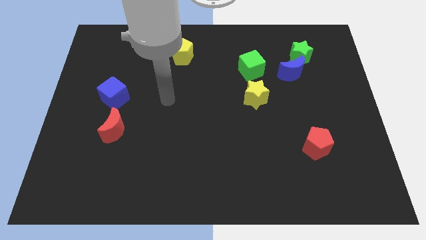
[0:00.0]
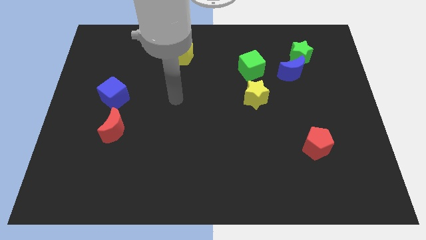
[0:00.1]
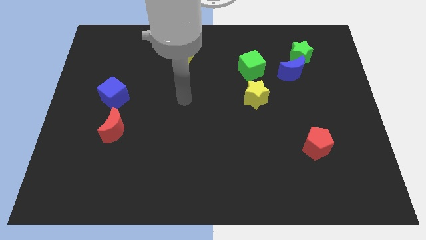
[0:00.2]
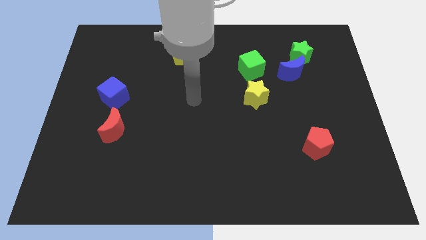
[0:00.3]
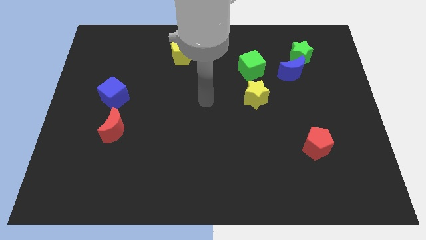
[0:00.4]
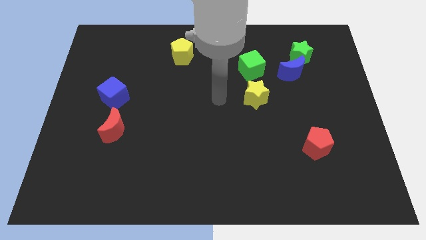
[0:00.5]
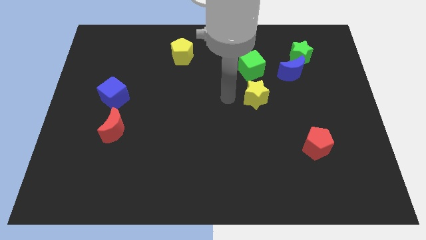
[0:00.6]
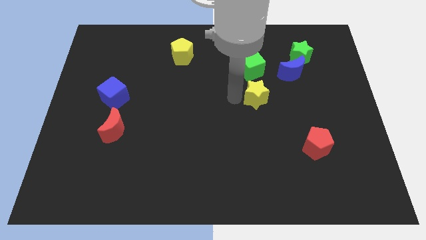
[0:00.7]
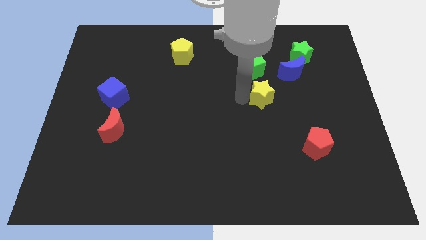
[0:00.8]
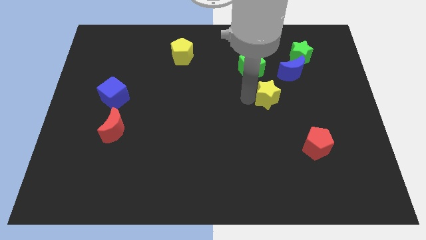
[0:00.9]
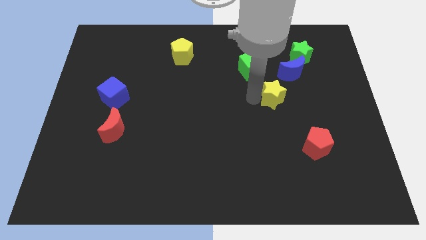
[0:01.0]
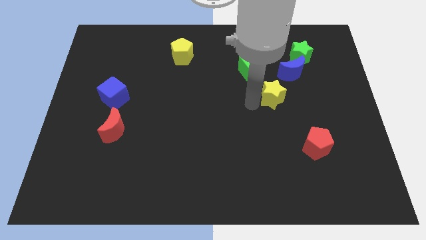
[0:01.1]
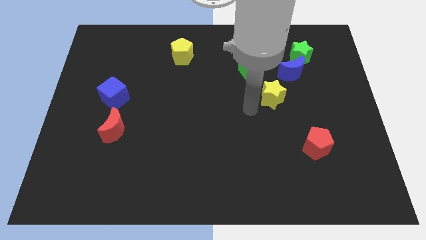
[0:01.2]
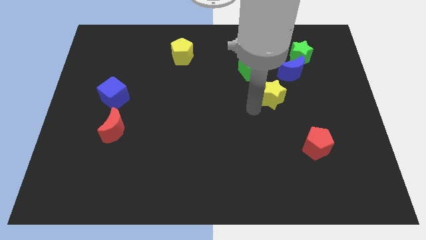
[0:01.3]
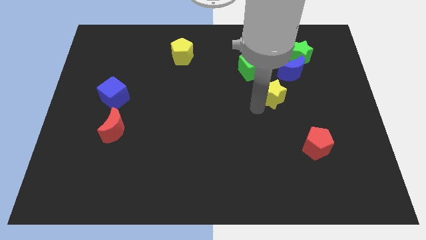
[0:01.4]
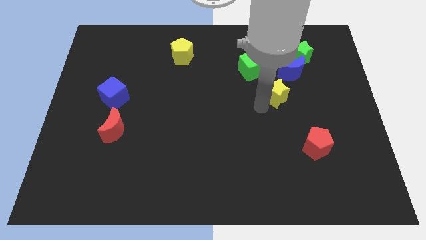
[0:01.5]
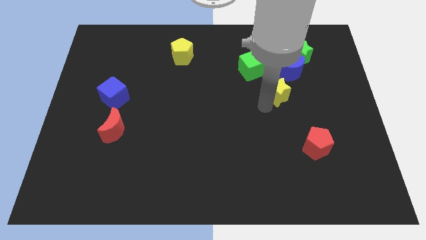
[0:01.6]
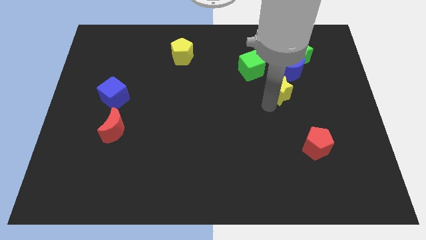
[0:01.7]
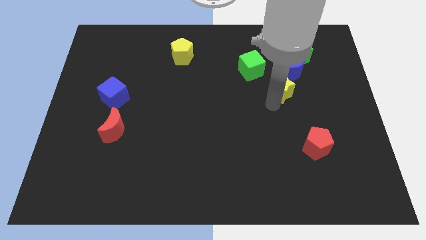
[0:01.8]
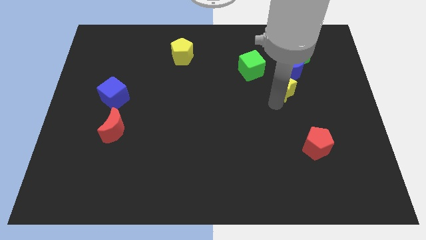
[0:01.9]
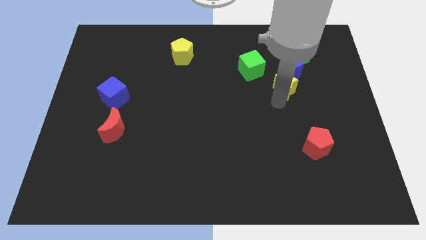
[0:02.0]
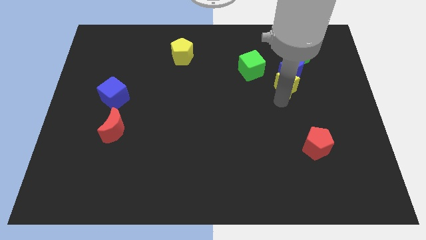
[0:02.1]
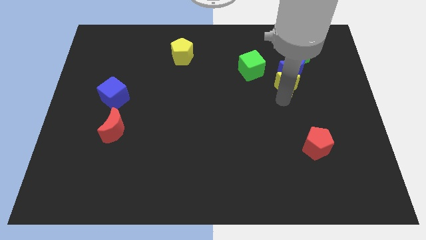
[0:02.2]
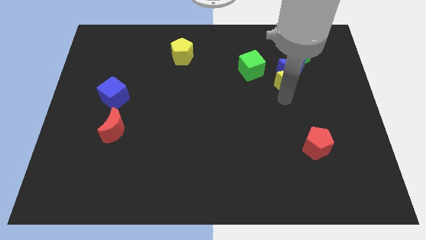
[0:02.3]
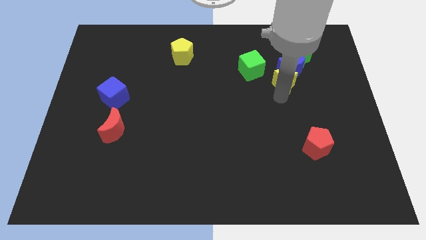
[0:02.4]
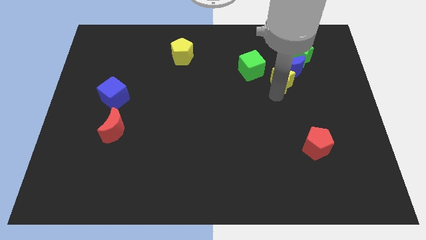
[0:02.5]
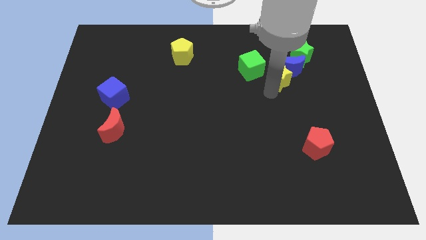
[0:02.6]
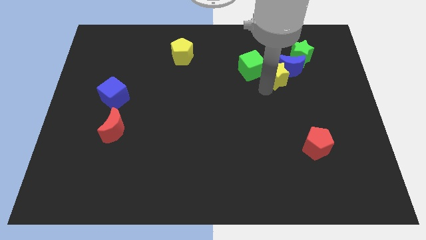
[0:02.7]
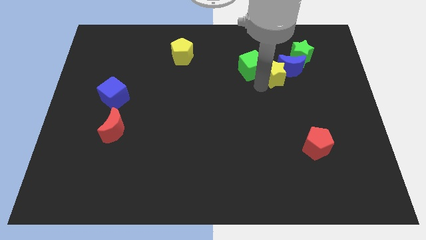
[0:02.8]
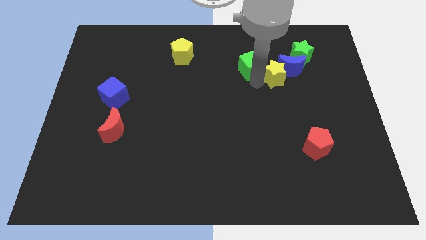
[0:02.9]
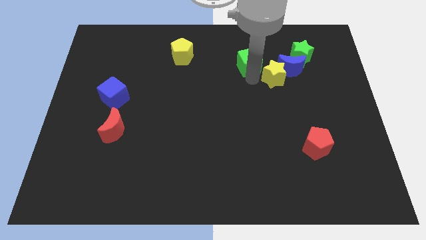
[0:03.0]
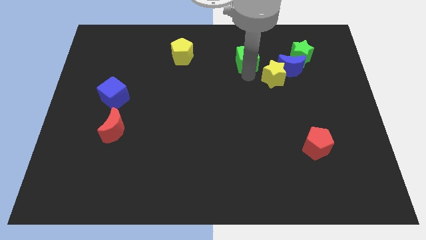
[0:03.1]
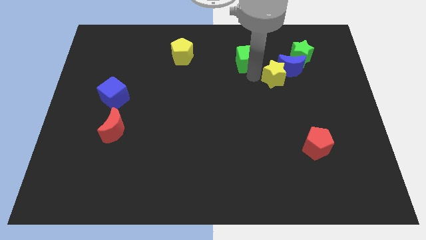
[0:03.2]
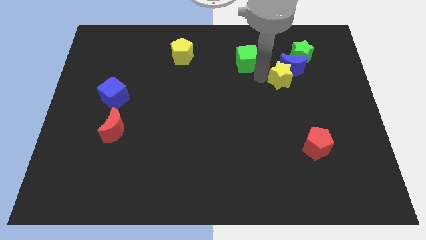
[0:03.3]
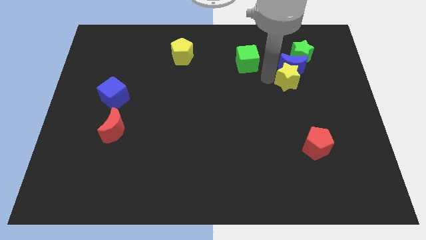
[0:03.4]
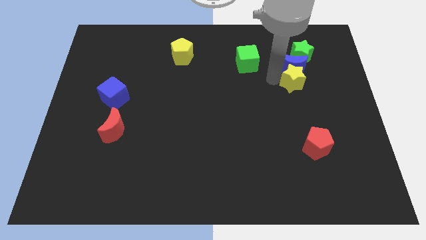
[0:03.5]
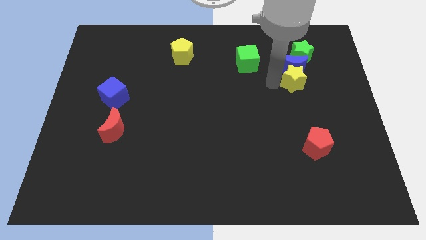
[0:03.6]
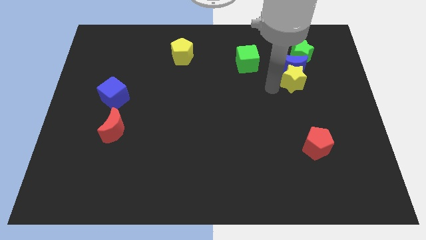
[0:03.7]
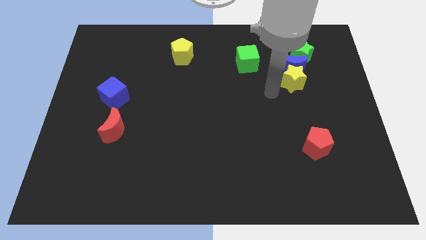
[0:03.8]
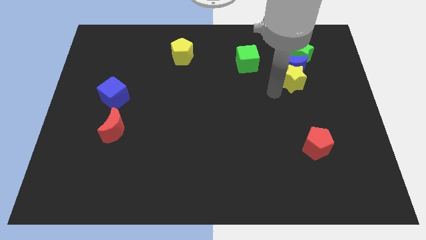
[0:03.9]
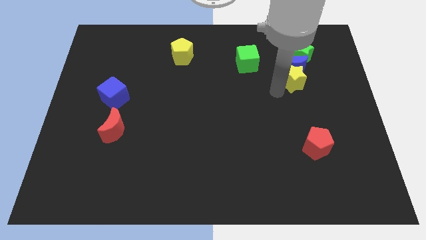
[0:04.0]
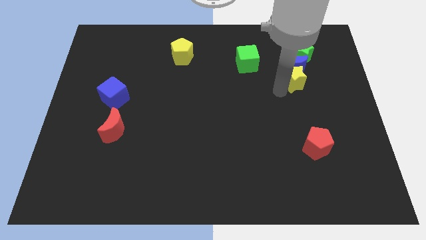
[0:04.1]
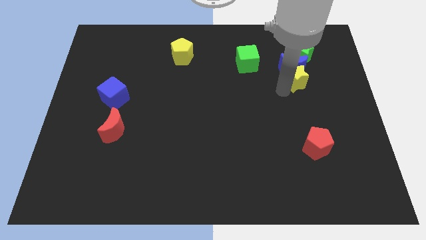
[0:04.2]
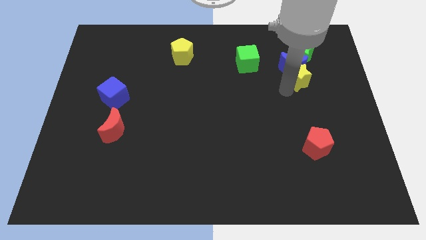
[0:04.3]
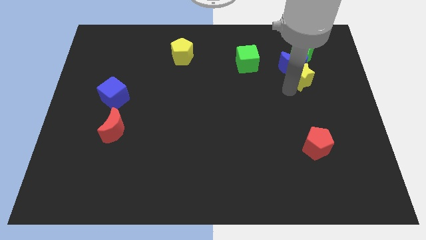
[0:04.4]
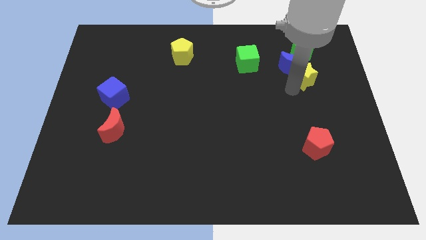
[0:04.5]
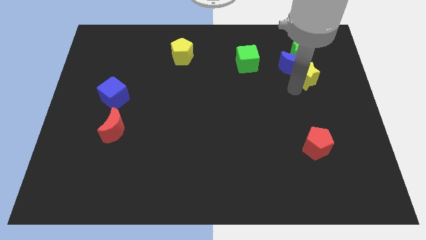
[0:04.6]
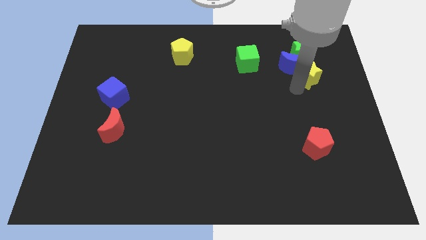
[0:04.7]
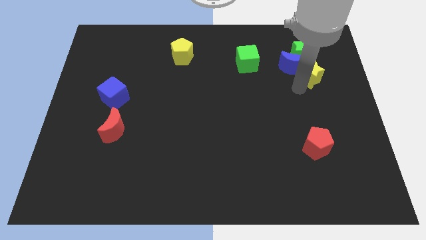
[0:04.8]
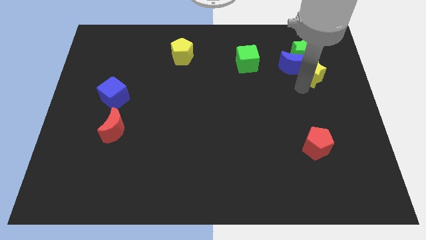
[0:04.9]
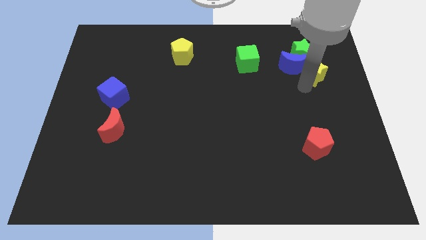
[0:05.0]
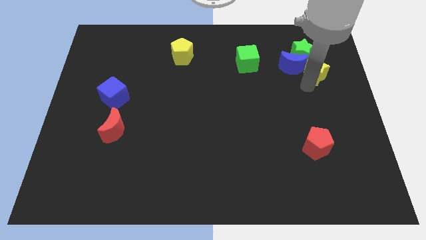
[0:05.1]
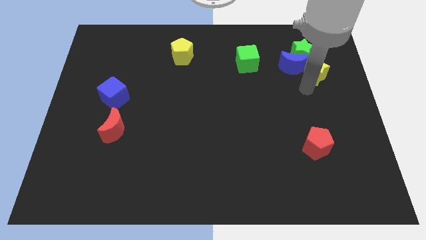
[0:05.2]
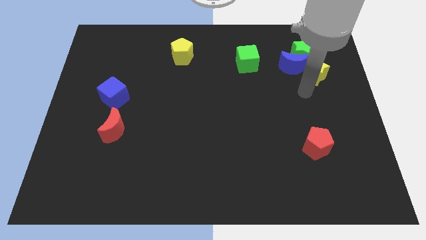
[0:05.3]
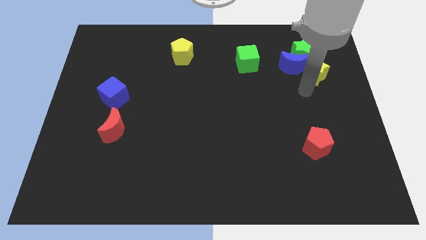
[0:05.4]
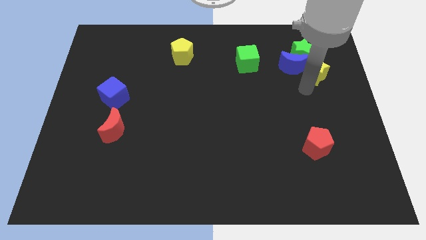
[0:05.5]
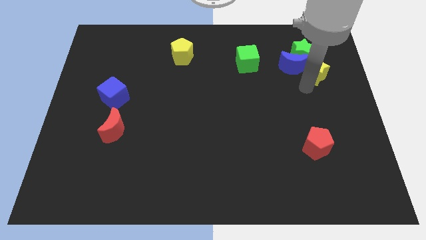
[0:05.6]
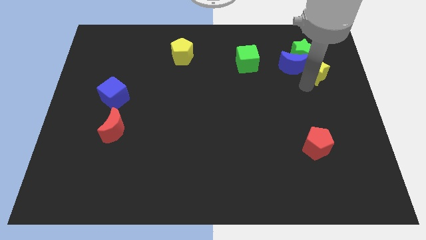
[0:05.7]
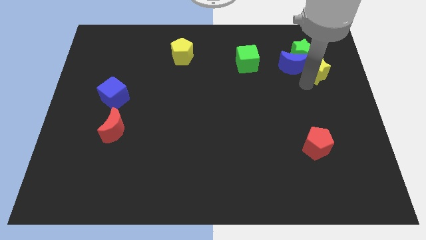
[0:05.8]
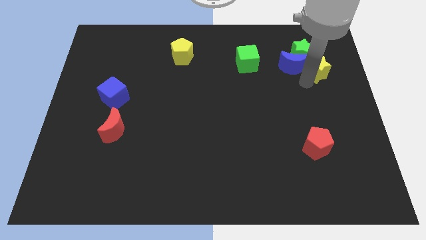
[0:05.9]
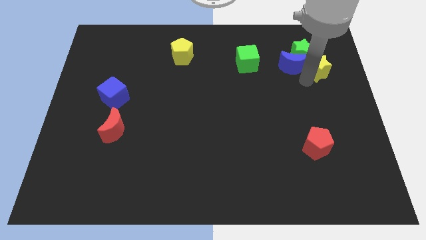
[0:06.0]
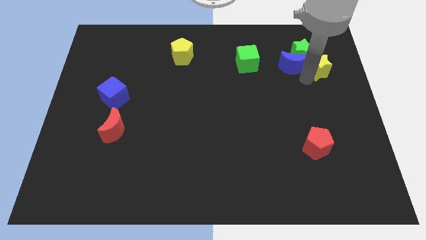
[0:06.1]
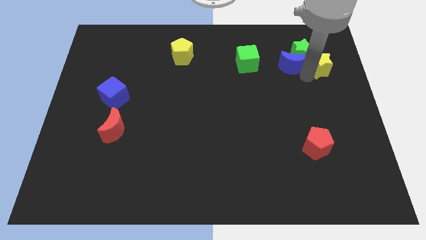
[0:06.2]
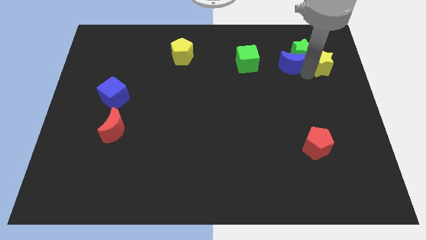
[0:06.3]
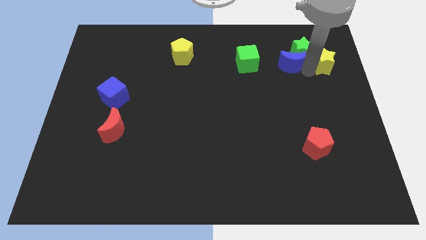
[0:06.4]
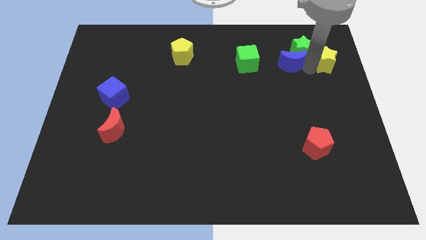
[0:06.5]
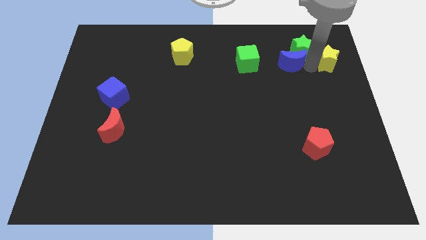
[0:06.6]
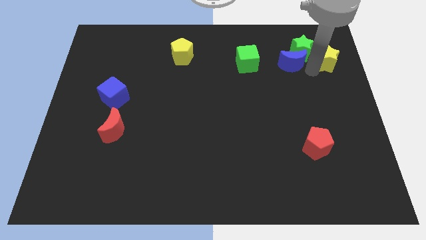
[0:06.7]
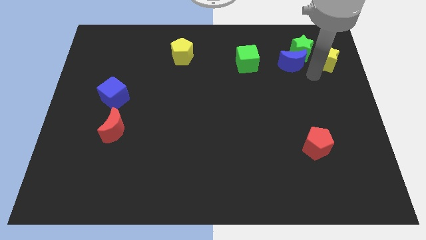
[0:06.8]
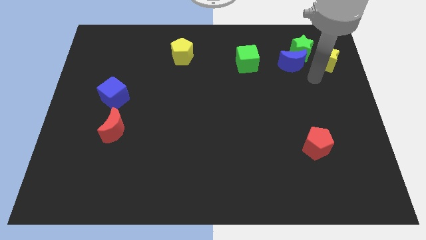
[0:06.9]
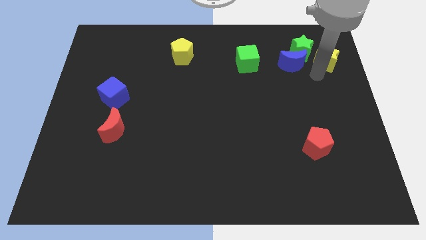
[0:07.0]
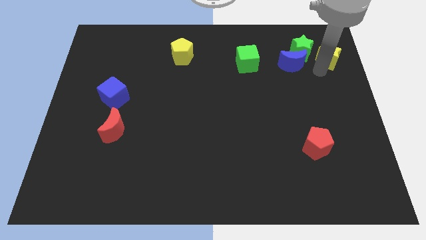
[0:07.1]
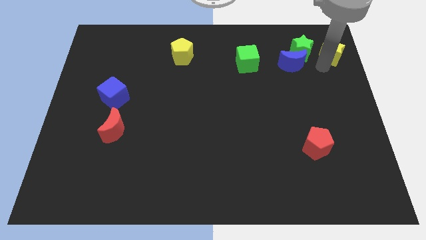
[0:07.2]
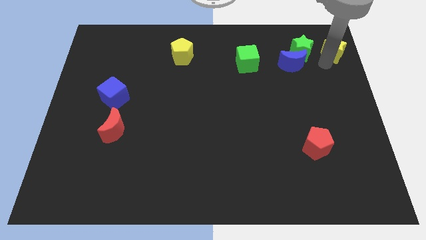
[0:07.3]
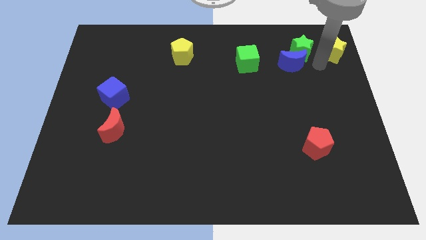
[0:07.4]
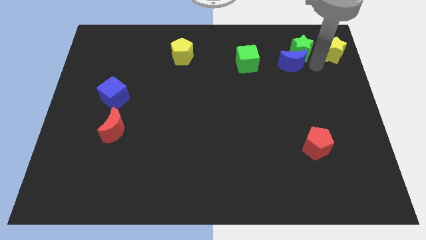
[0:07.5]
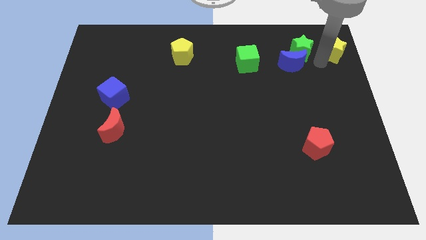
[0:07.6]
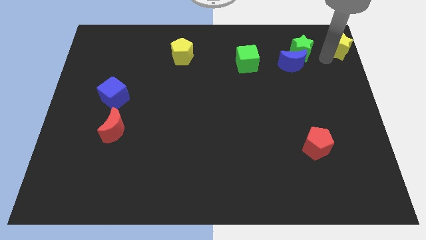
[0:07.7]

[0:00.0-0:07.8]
slide the yellow star to the top right
